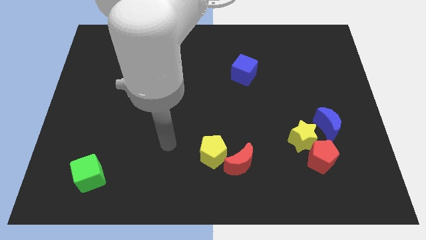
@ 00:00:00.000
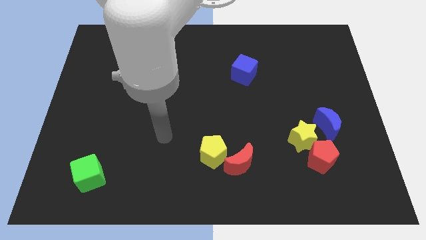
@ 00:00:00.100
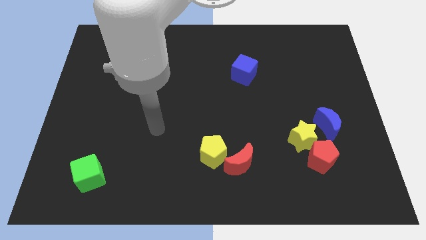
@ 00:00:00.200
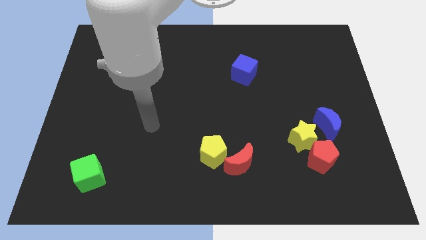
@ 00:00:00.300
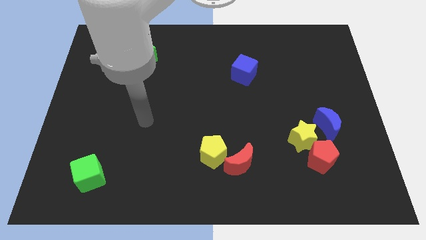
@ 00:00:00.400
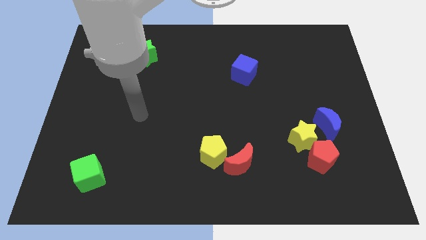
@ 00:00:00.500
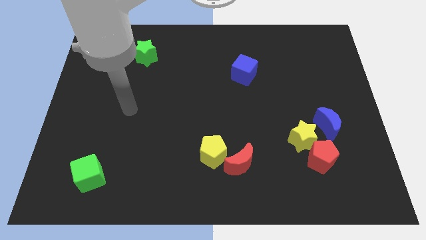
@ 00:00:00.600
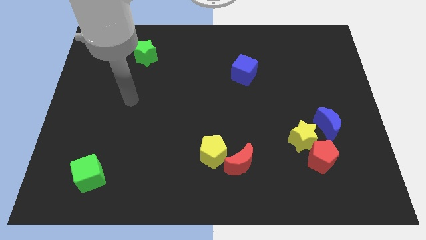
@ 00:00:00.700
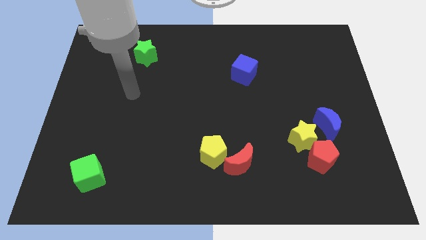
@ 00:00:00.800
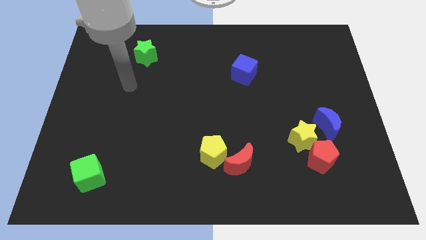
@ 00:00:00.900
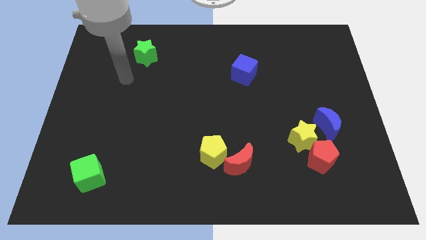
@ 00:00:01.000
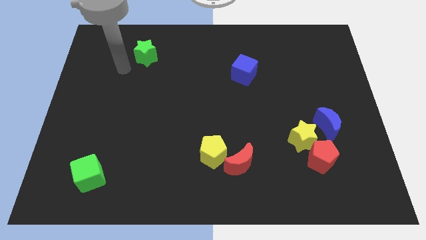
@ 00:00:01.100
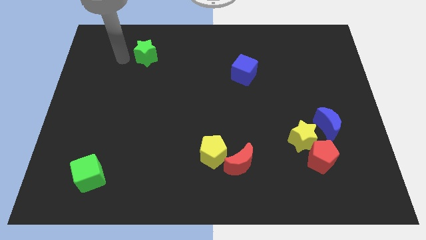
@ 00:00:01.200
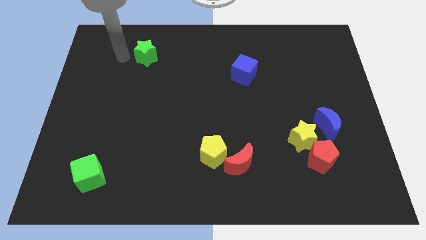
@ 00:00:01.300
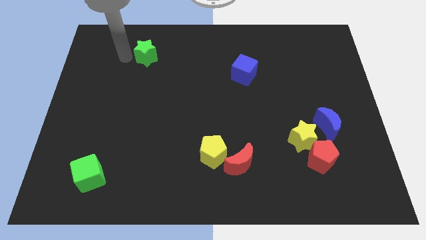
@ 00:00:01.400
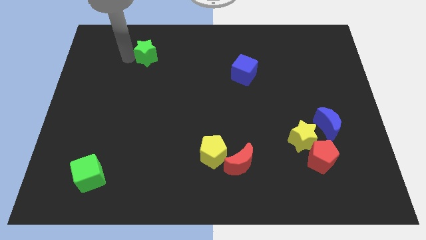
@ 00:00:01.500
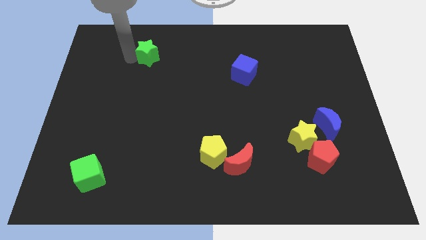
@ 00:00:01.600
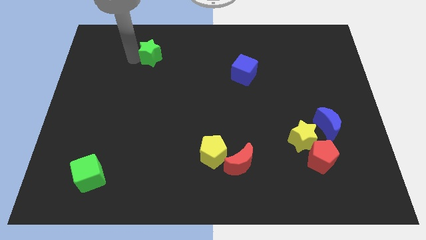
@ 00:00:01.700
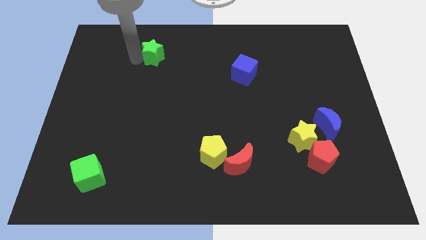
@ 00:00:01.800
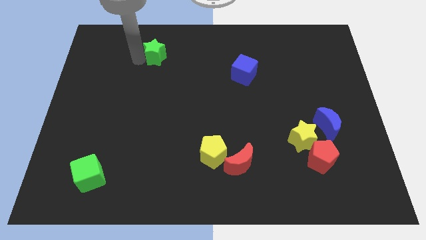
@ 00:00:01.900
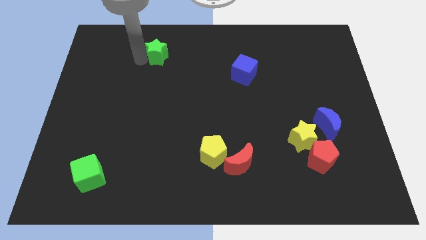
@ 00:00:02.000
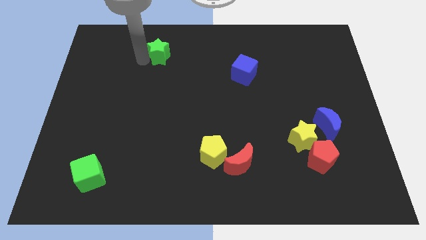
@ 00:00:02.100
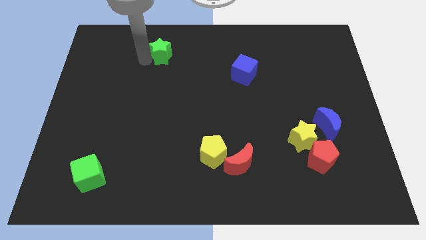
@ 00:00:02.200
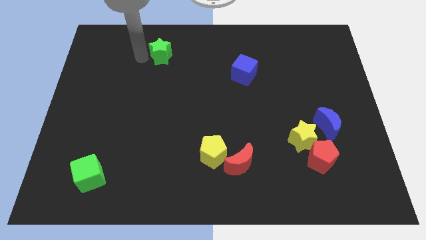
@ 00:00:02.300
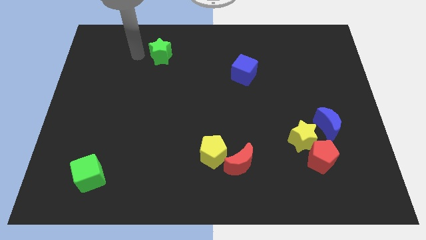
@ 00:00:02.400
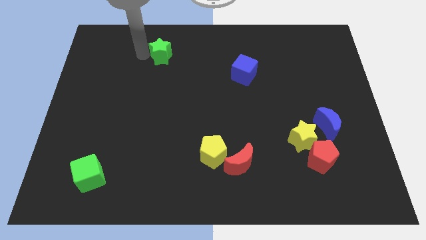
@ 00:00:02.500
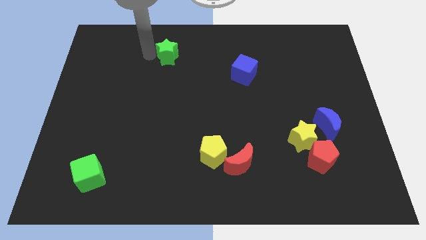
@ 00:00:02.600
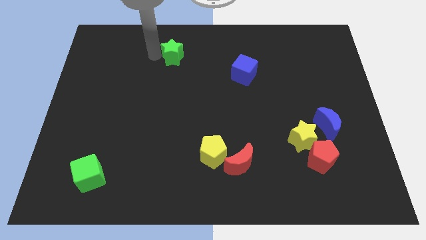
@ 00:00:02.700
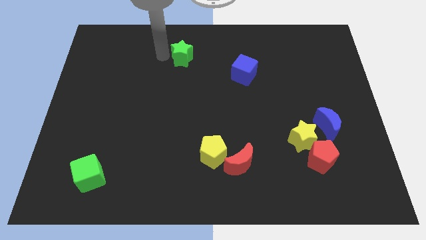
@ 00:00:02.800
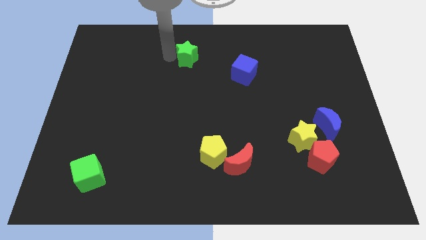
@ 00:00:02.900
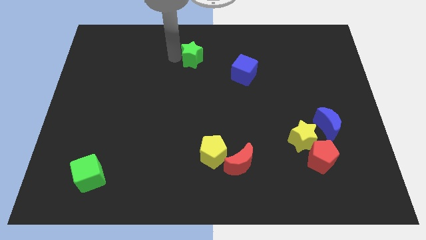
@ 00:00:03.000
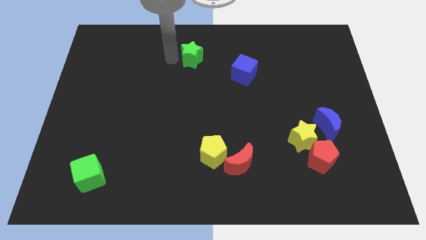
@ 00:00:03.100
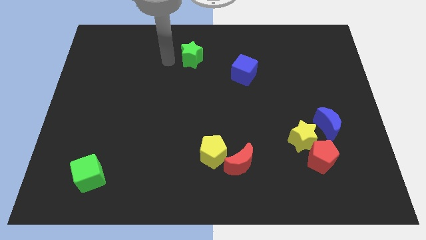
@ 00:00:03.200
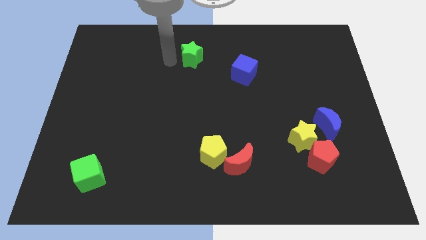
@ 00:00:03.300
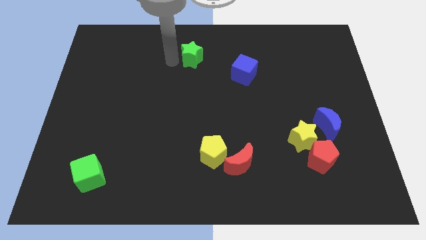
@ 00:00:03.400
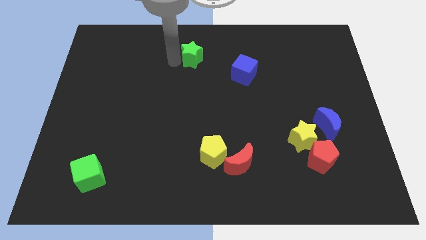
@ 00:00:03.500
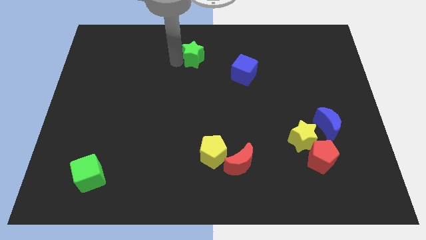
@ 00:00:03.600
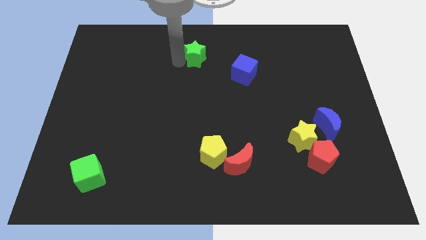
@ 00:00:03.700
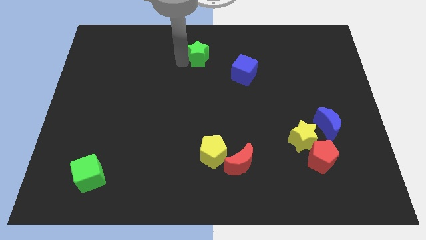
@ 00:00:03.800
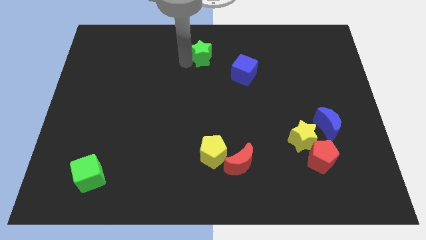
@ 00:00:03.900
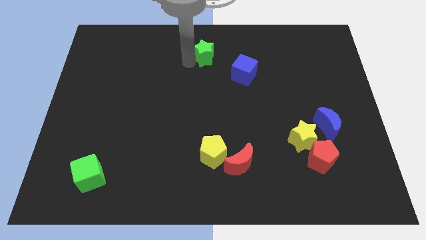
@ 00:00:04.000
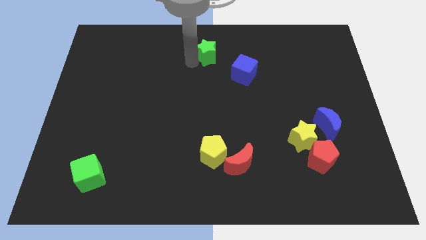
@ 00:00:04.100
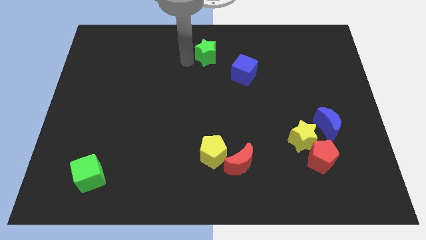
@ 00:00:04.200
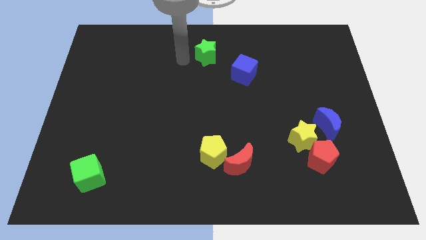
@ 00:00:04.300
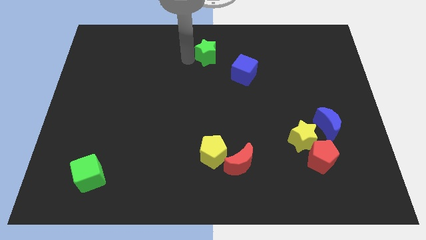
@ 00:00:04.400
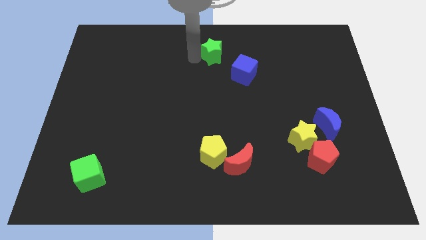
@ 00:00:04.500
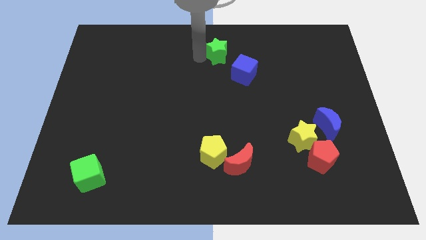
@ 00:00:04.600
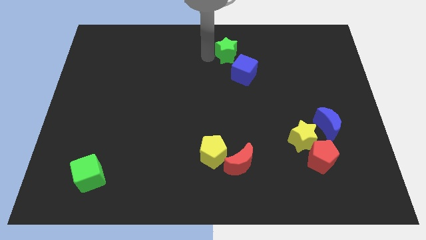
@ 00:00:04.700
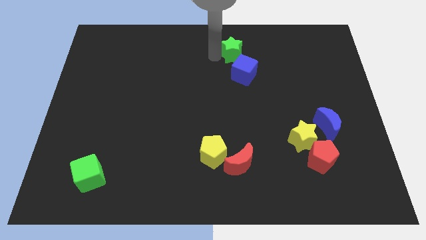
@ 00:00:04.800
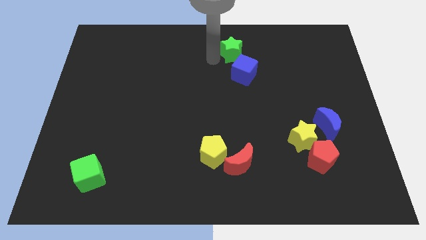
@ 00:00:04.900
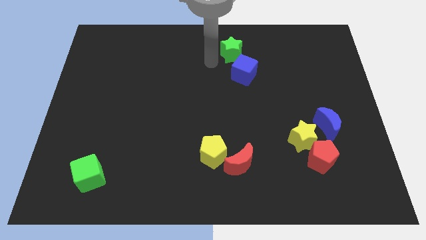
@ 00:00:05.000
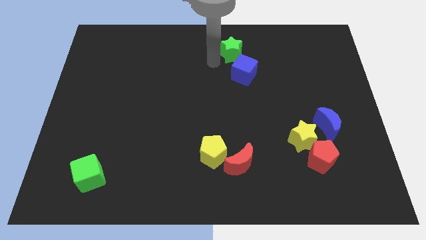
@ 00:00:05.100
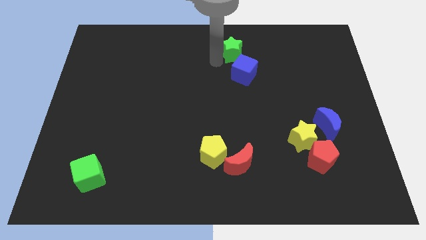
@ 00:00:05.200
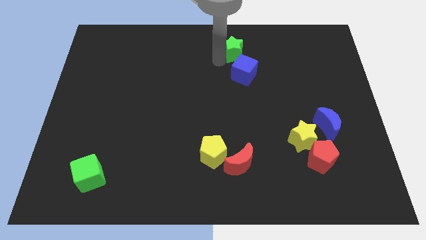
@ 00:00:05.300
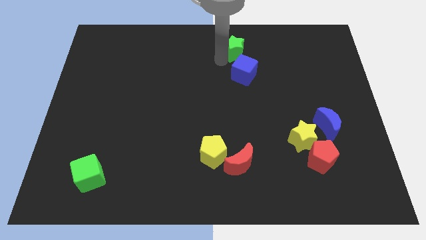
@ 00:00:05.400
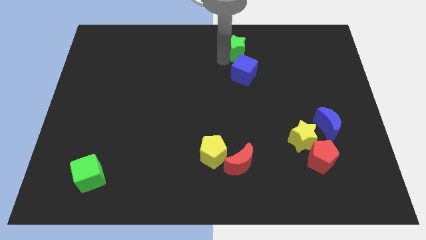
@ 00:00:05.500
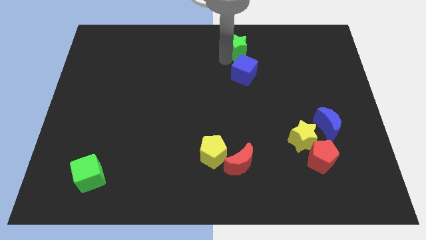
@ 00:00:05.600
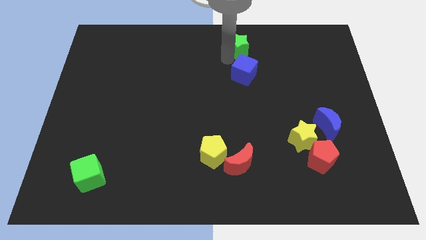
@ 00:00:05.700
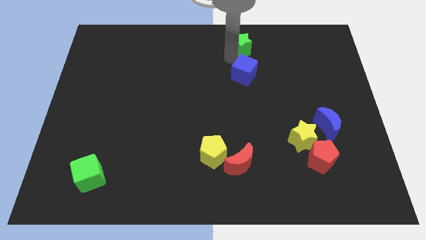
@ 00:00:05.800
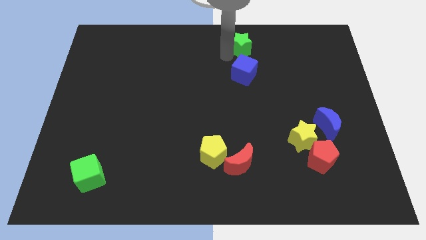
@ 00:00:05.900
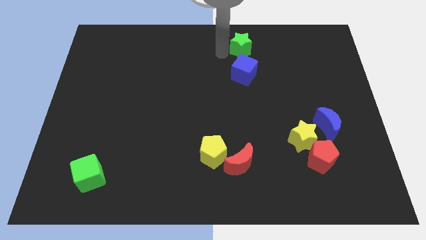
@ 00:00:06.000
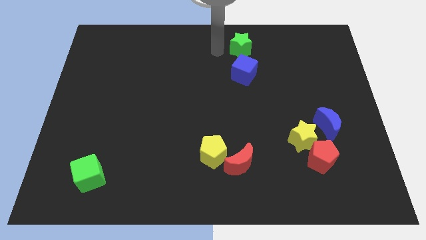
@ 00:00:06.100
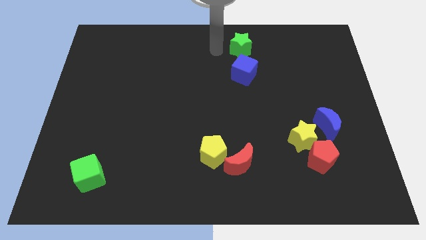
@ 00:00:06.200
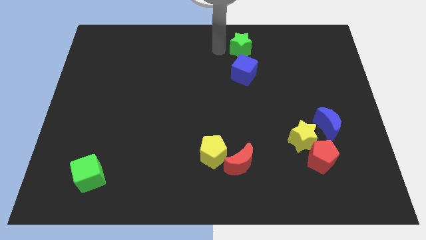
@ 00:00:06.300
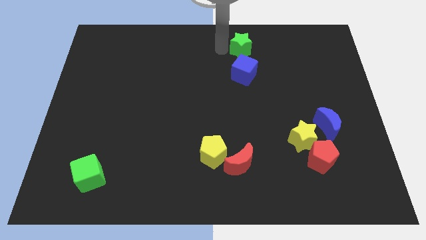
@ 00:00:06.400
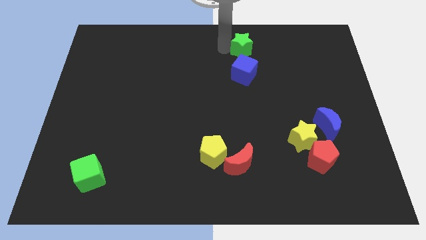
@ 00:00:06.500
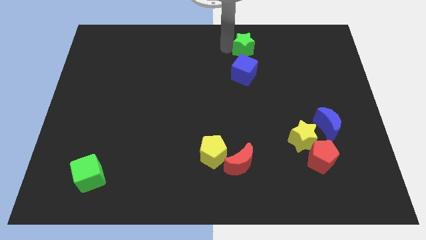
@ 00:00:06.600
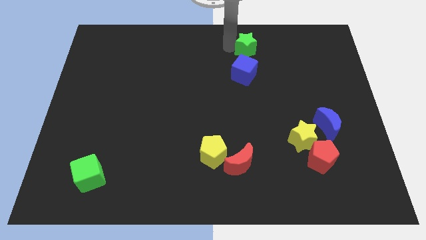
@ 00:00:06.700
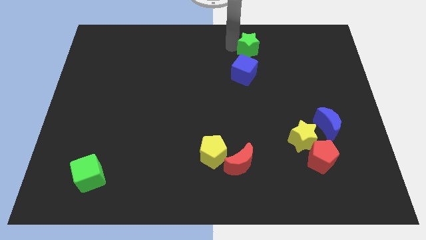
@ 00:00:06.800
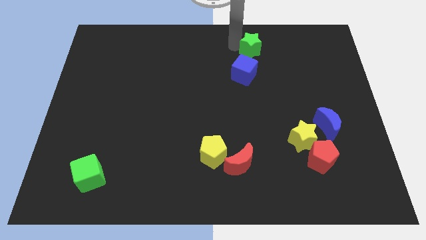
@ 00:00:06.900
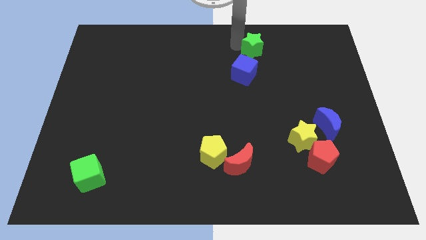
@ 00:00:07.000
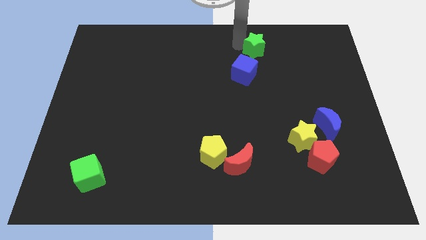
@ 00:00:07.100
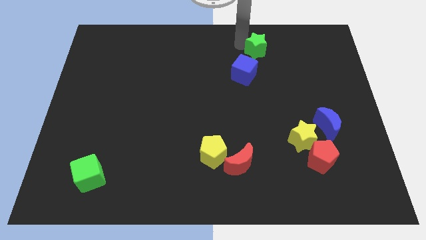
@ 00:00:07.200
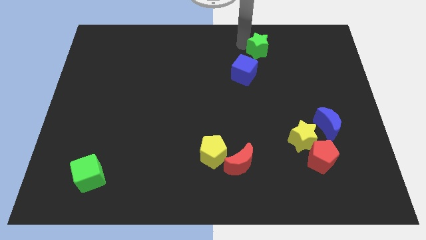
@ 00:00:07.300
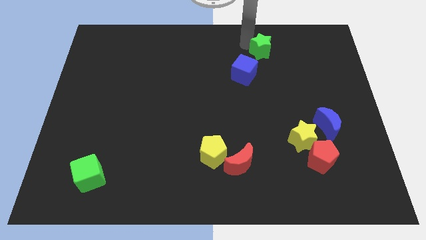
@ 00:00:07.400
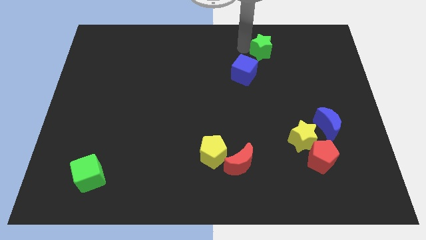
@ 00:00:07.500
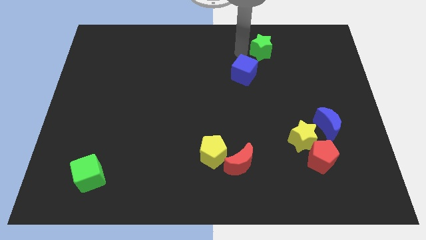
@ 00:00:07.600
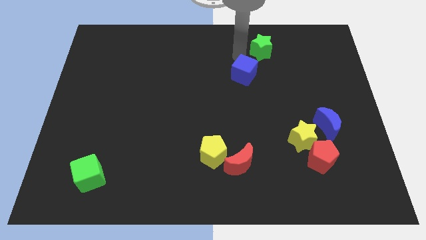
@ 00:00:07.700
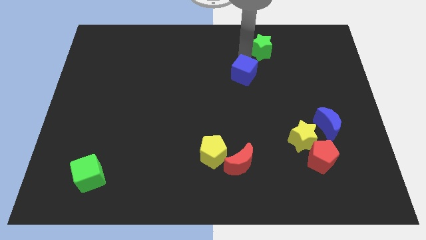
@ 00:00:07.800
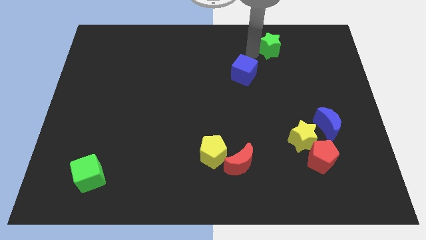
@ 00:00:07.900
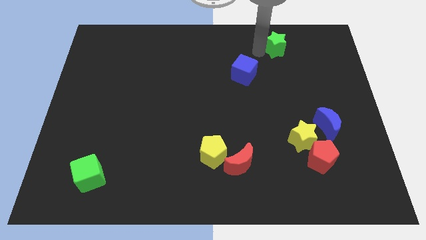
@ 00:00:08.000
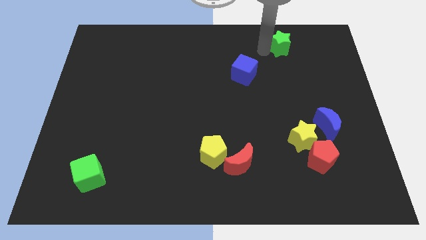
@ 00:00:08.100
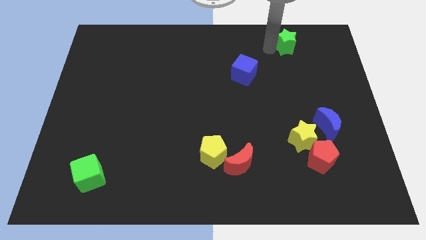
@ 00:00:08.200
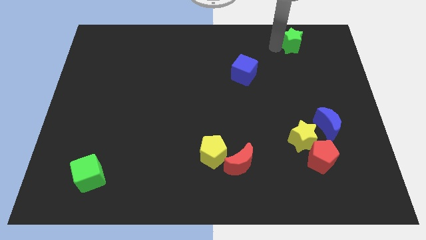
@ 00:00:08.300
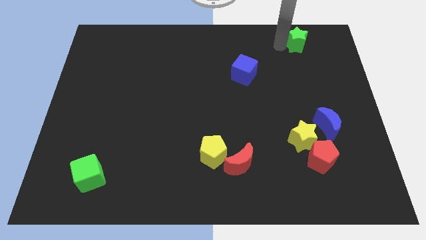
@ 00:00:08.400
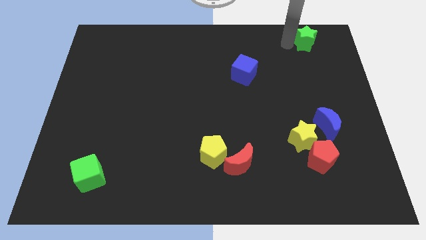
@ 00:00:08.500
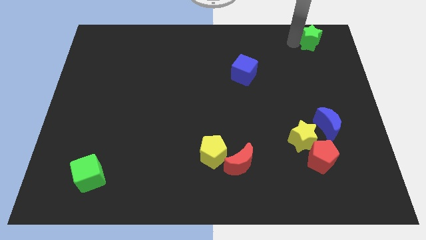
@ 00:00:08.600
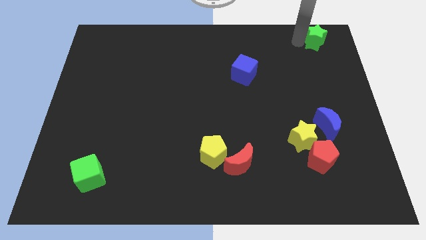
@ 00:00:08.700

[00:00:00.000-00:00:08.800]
move the green star to the top right of the board
